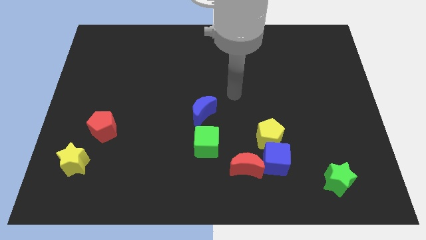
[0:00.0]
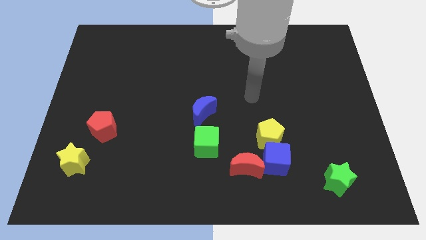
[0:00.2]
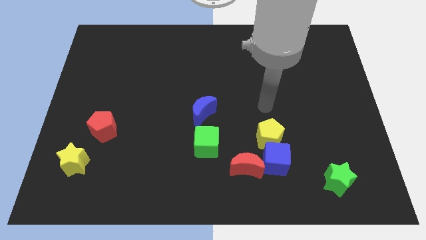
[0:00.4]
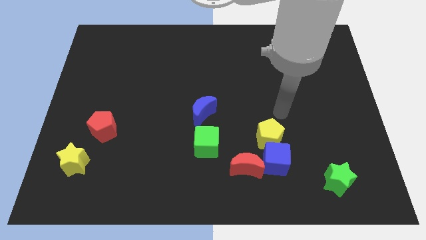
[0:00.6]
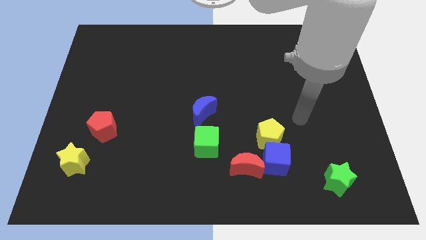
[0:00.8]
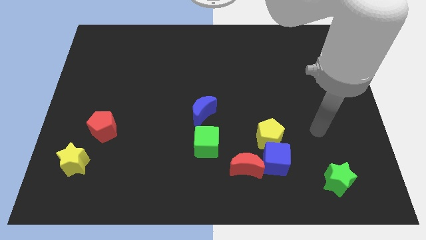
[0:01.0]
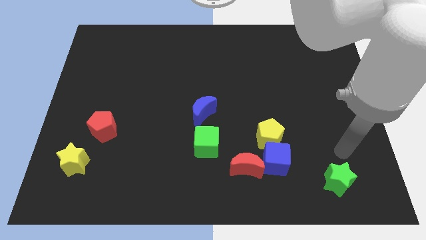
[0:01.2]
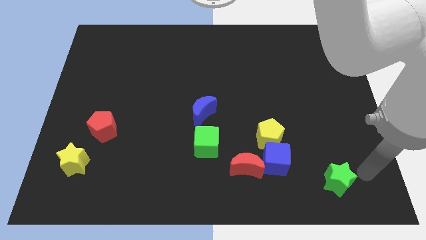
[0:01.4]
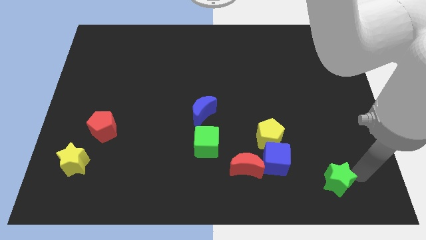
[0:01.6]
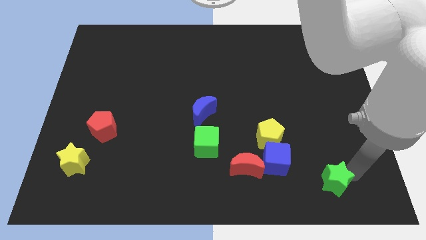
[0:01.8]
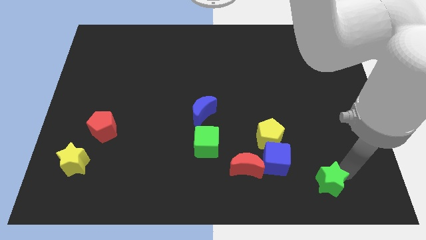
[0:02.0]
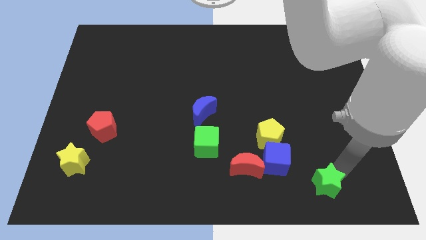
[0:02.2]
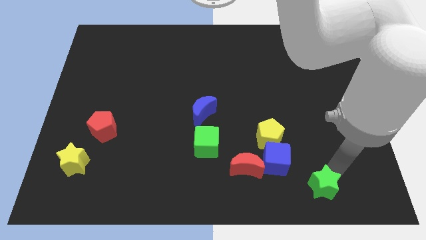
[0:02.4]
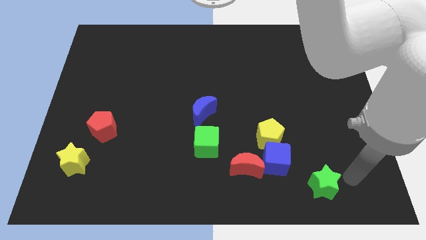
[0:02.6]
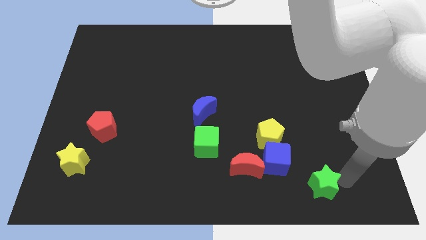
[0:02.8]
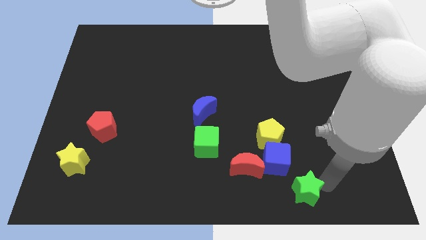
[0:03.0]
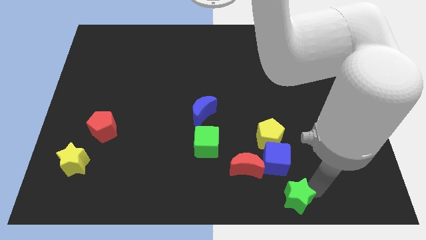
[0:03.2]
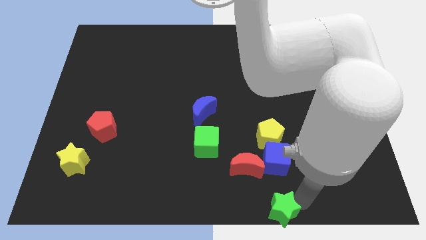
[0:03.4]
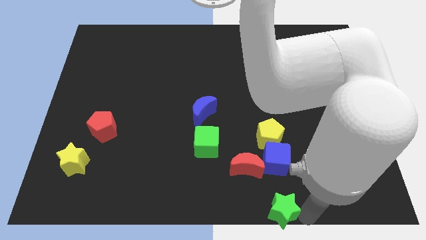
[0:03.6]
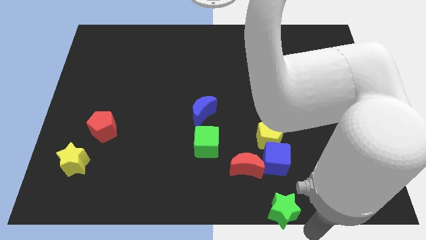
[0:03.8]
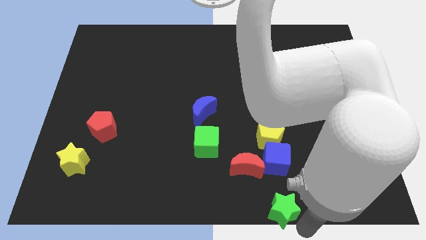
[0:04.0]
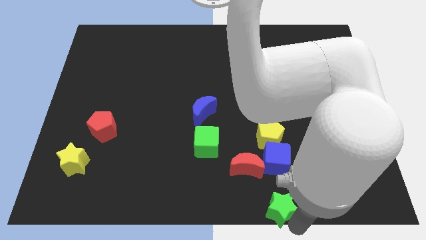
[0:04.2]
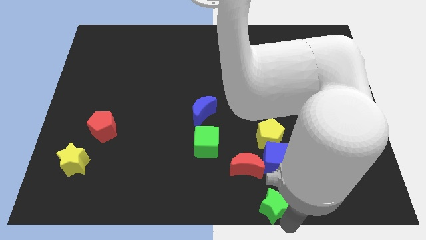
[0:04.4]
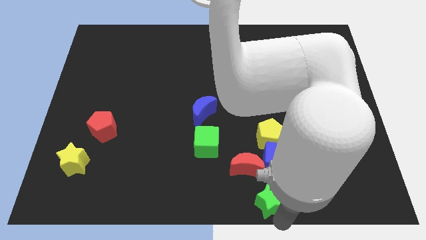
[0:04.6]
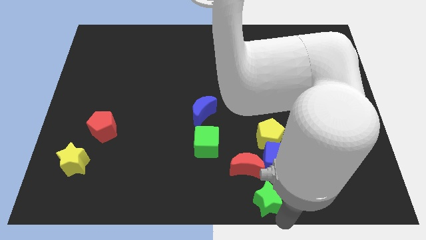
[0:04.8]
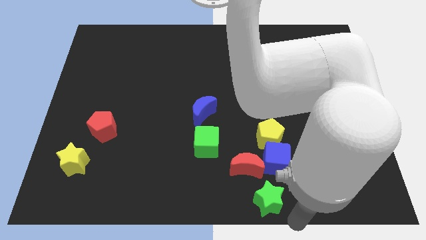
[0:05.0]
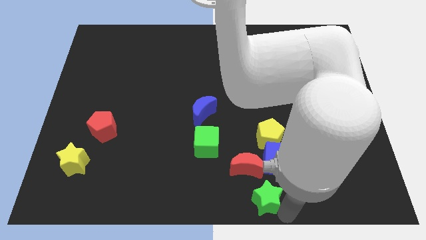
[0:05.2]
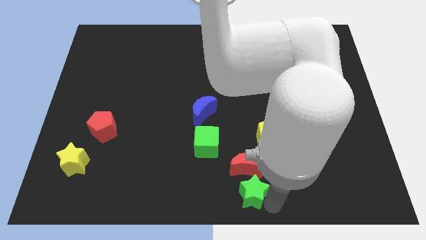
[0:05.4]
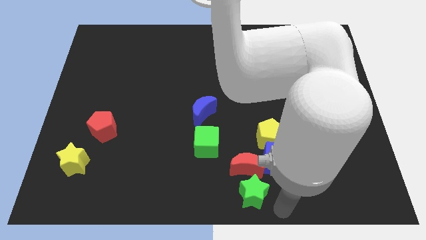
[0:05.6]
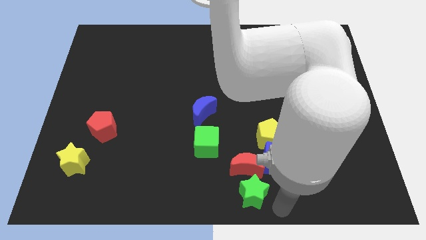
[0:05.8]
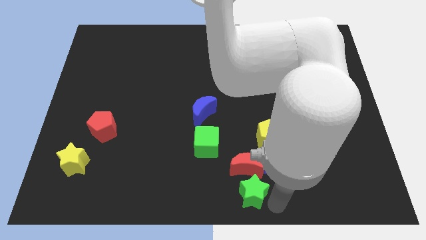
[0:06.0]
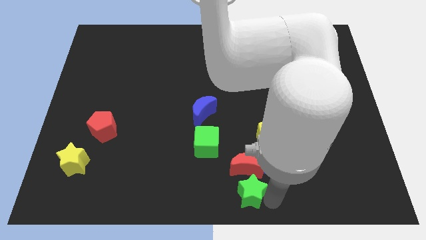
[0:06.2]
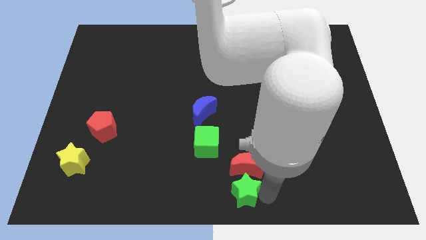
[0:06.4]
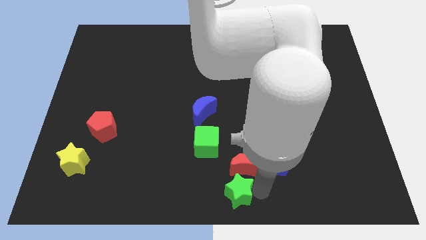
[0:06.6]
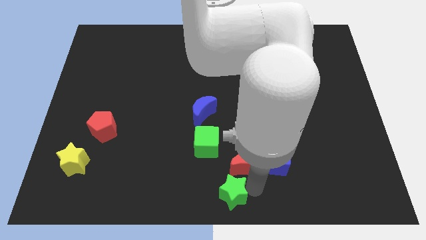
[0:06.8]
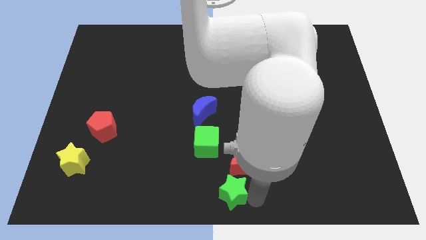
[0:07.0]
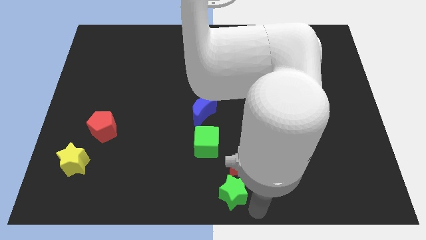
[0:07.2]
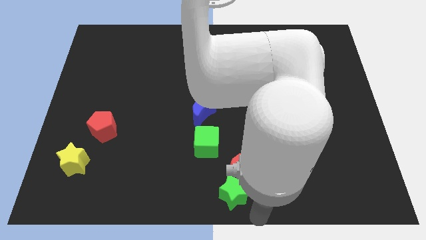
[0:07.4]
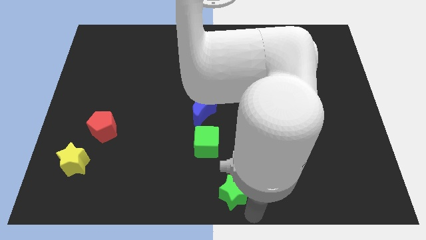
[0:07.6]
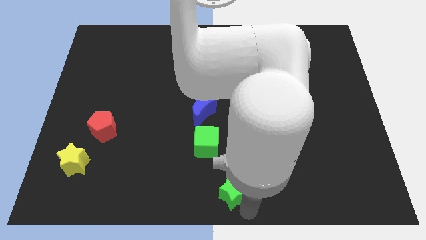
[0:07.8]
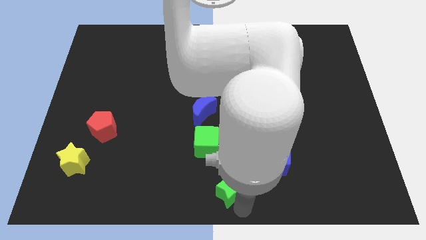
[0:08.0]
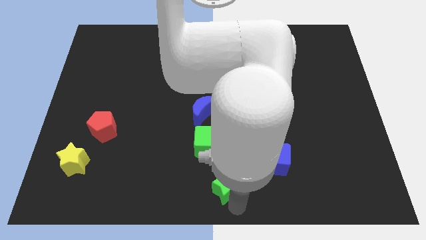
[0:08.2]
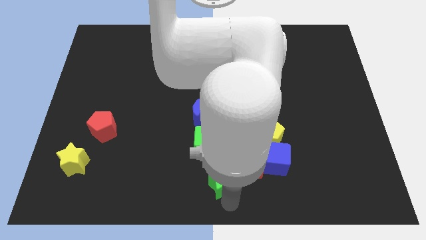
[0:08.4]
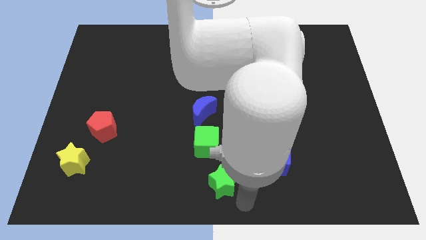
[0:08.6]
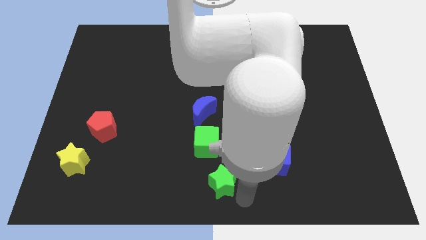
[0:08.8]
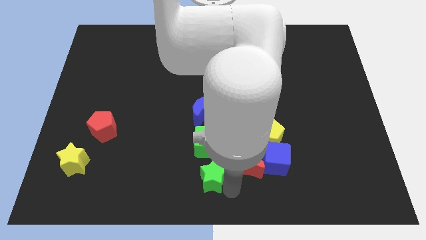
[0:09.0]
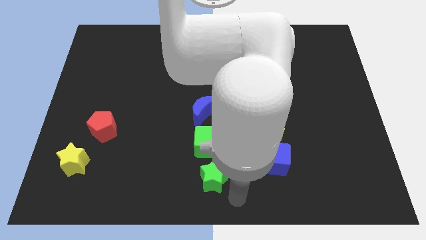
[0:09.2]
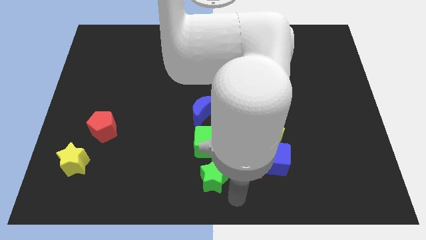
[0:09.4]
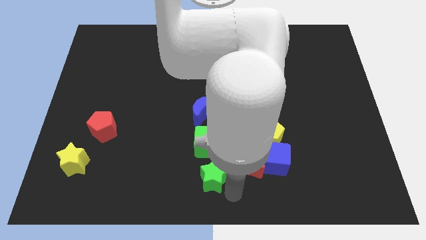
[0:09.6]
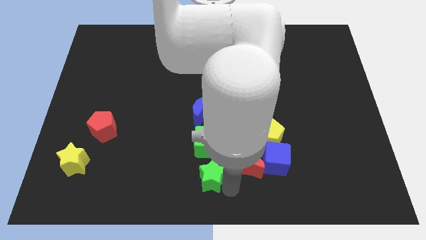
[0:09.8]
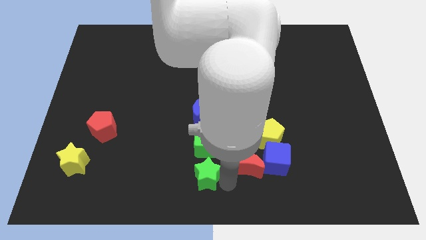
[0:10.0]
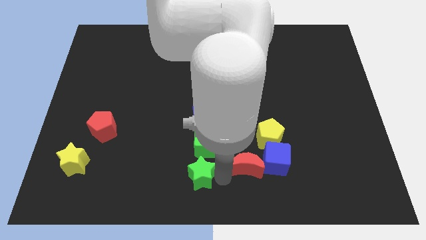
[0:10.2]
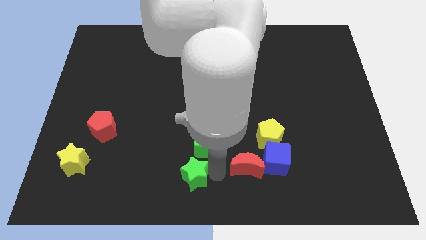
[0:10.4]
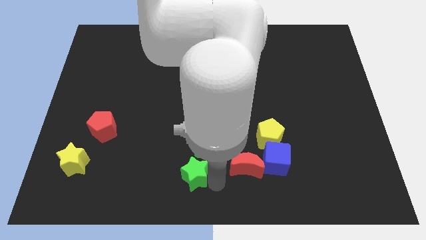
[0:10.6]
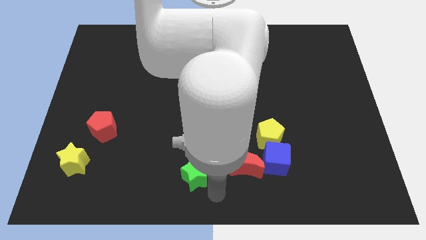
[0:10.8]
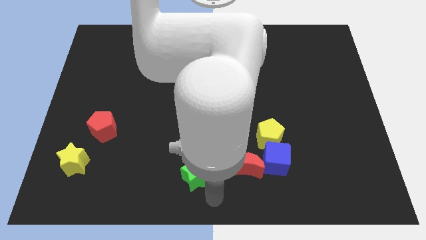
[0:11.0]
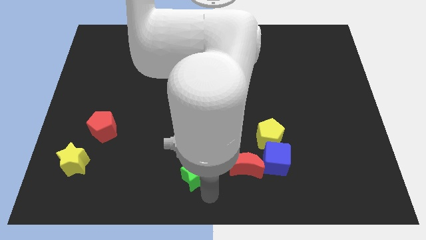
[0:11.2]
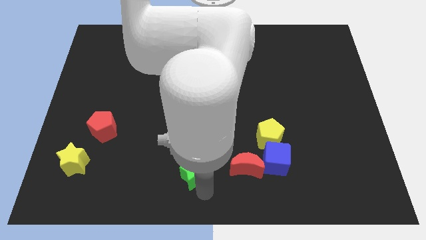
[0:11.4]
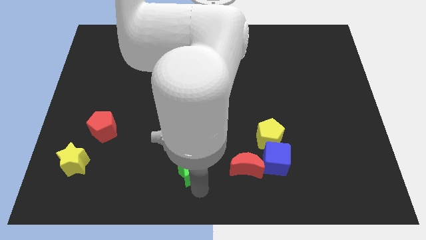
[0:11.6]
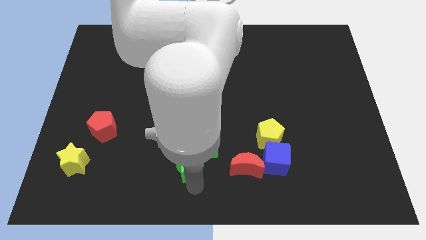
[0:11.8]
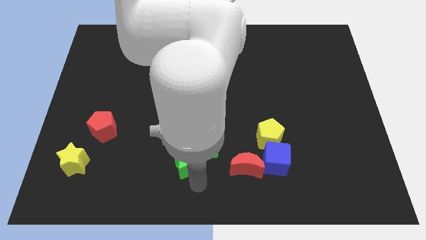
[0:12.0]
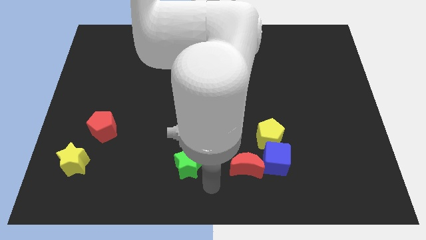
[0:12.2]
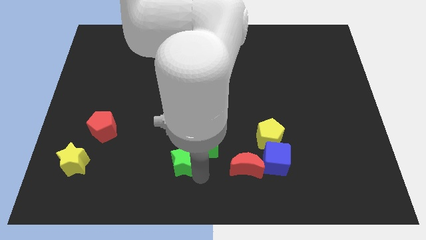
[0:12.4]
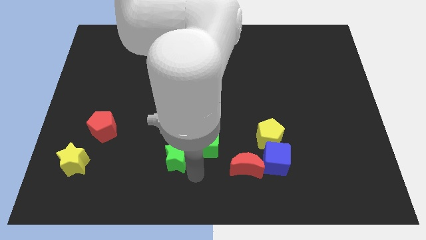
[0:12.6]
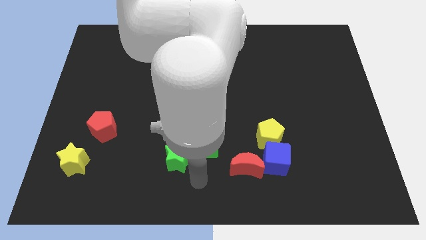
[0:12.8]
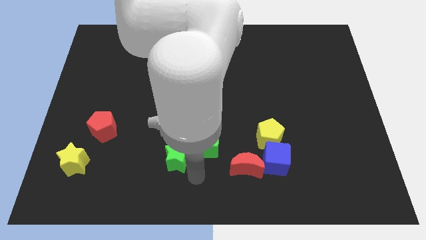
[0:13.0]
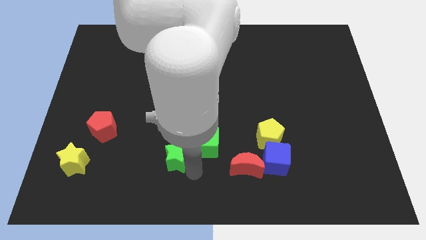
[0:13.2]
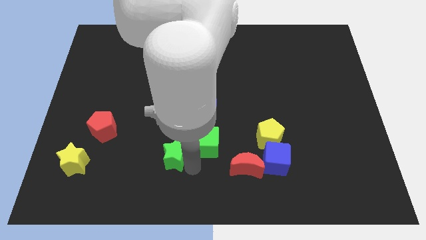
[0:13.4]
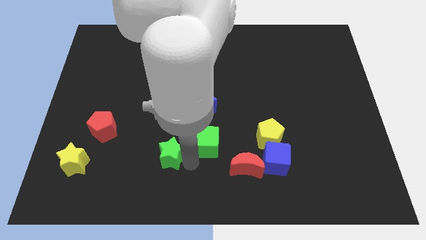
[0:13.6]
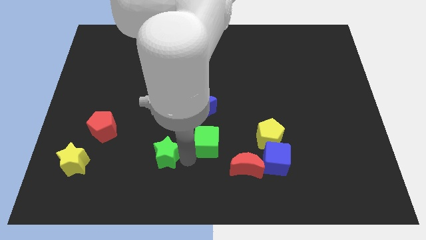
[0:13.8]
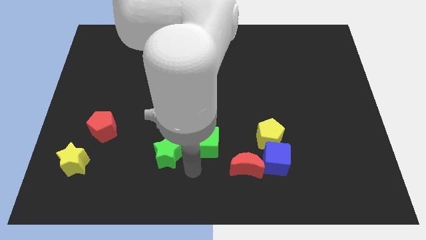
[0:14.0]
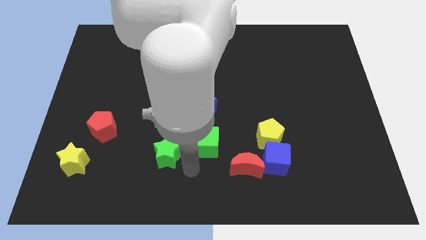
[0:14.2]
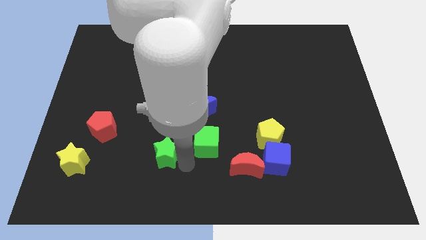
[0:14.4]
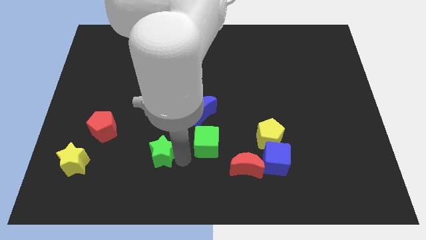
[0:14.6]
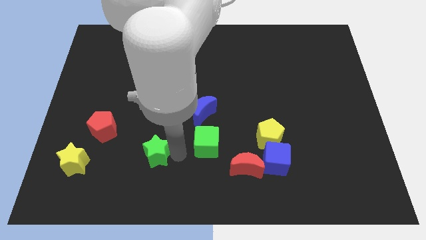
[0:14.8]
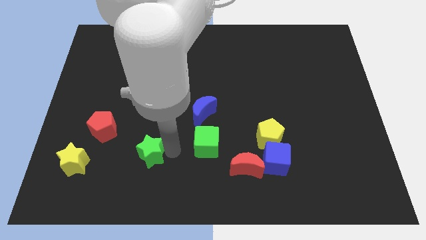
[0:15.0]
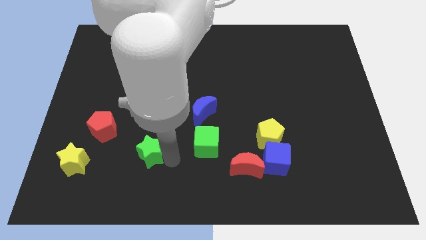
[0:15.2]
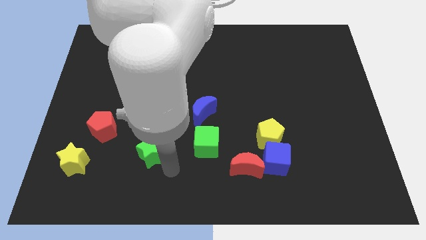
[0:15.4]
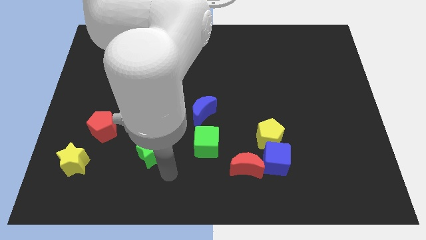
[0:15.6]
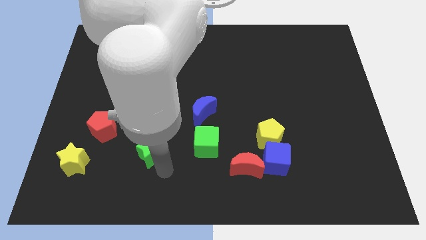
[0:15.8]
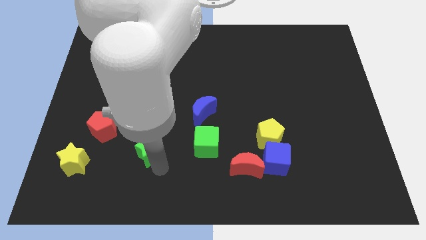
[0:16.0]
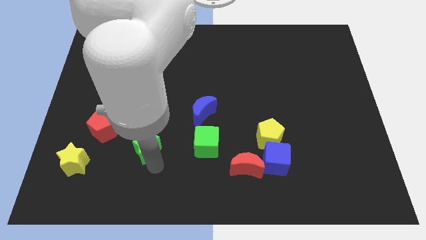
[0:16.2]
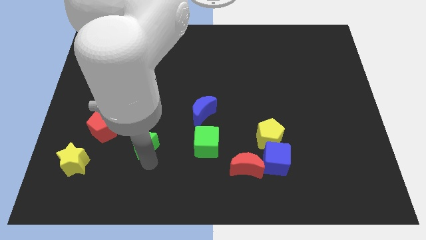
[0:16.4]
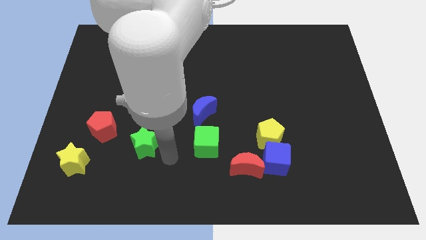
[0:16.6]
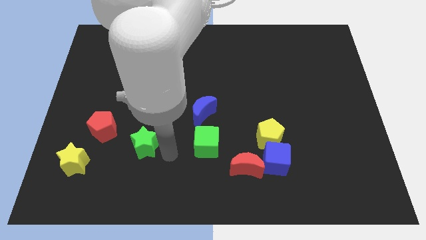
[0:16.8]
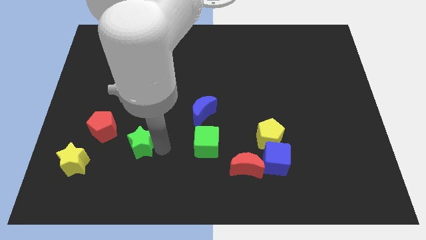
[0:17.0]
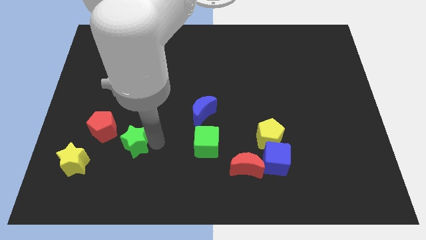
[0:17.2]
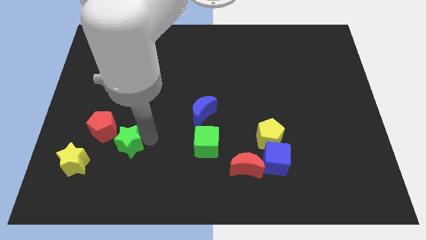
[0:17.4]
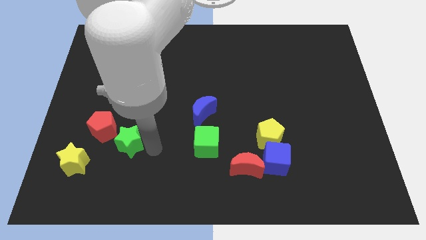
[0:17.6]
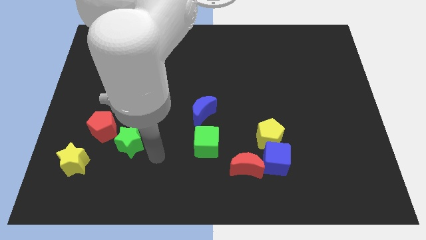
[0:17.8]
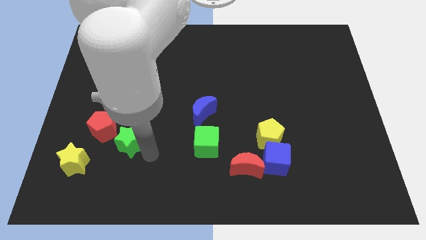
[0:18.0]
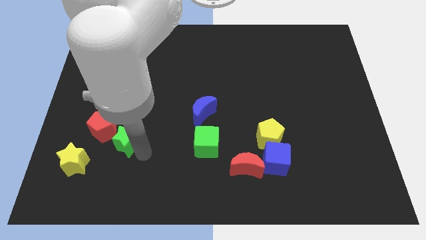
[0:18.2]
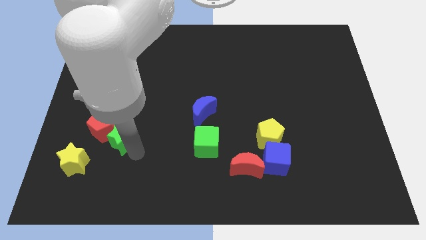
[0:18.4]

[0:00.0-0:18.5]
put the green star to the red pentagon
